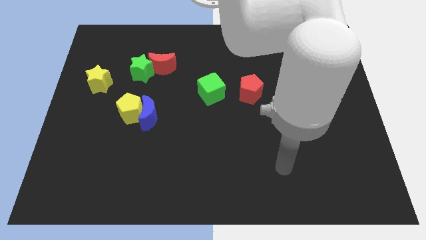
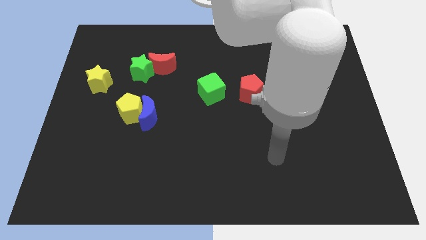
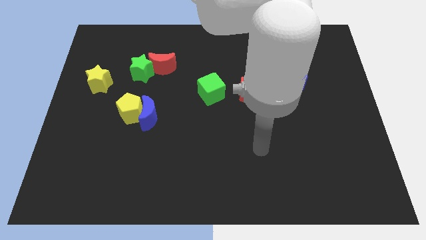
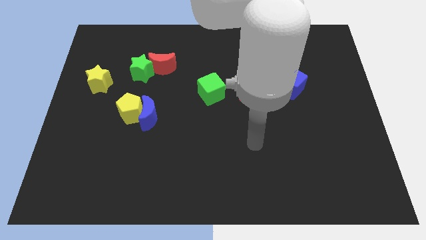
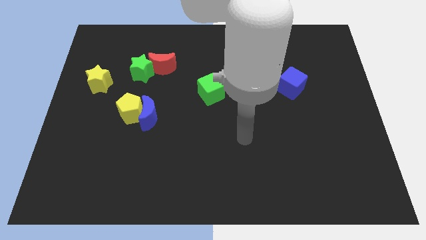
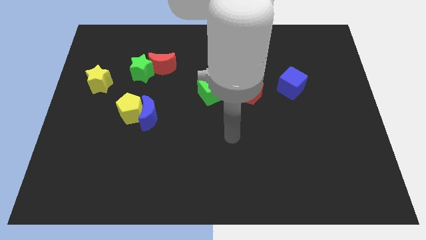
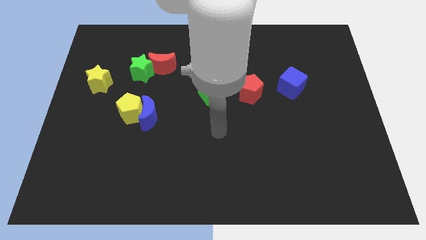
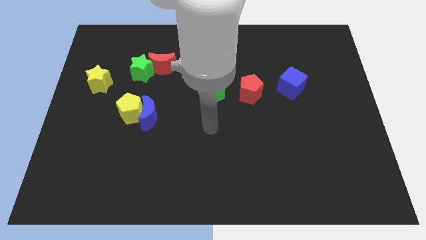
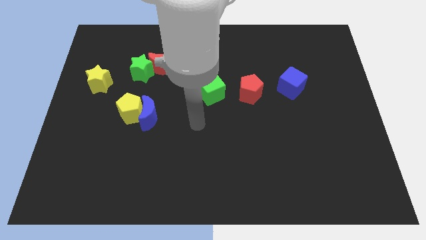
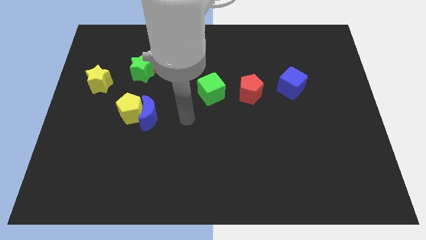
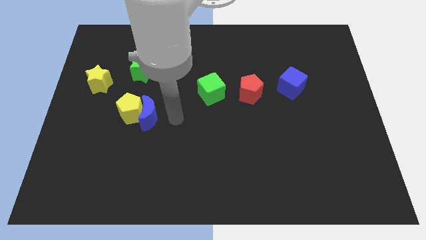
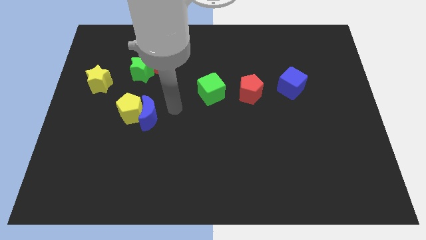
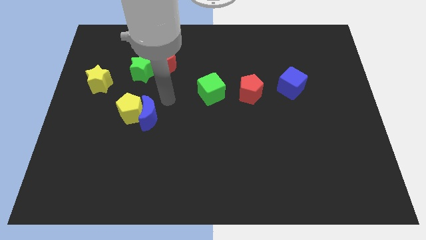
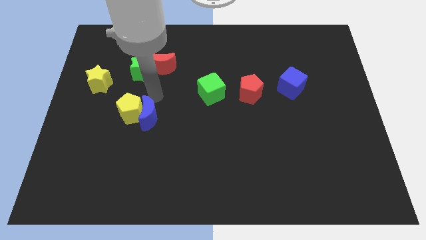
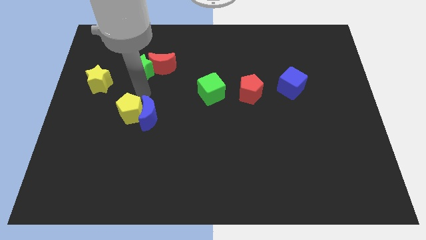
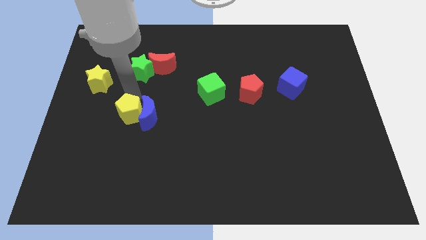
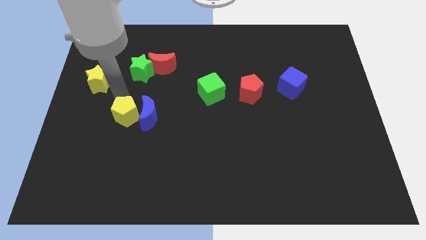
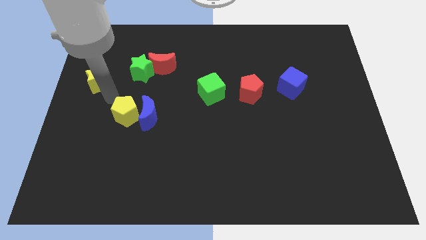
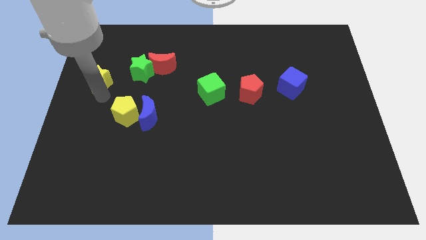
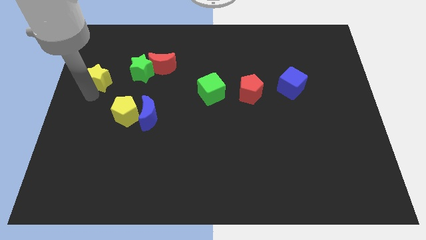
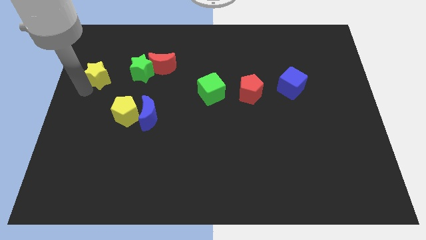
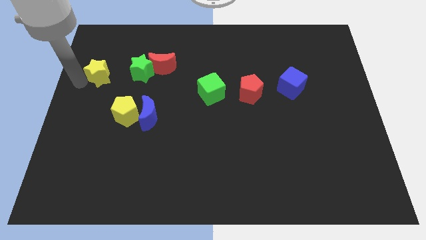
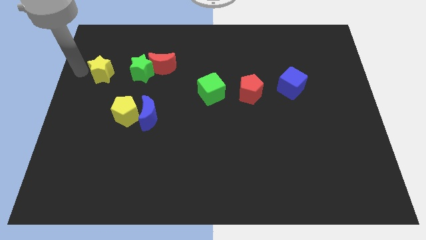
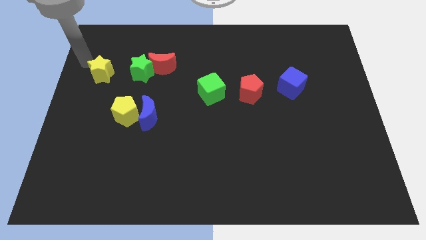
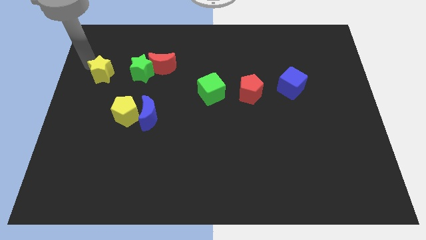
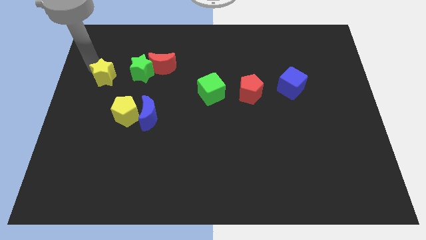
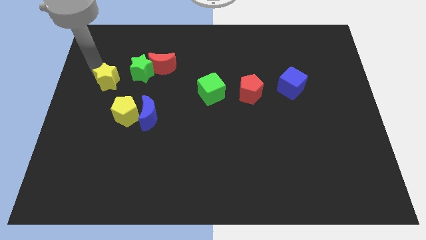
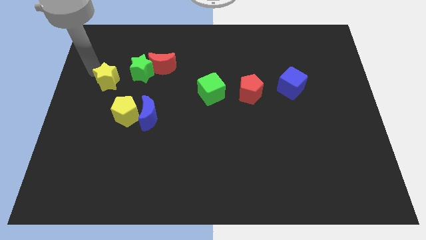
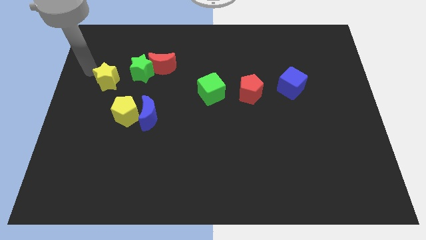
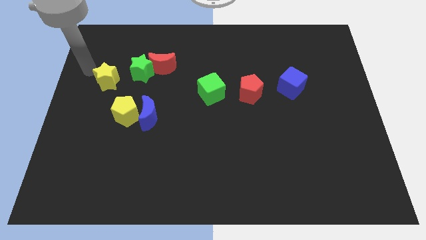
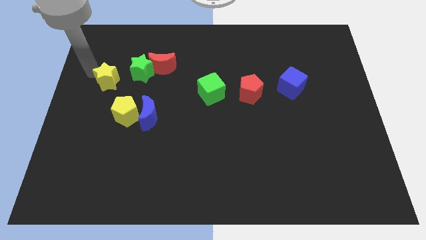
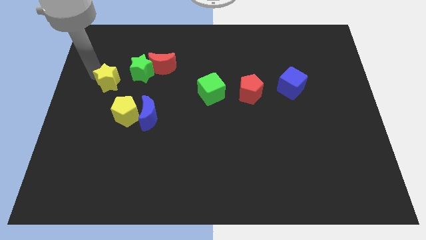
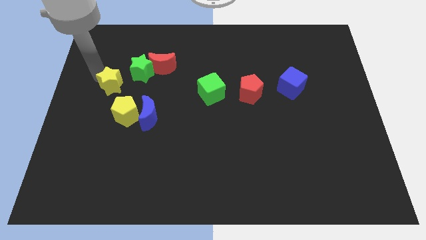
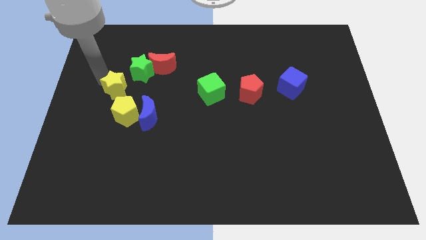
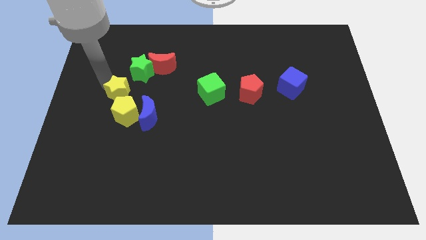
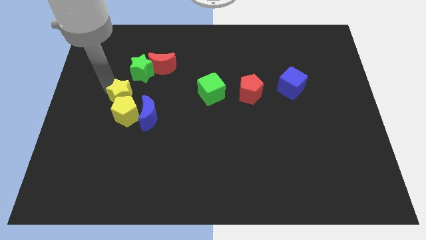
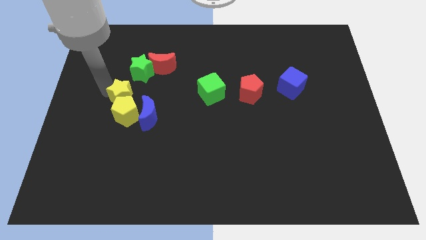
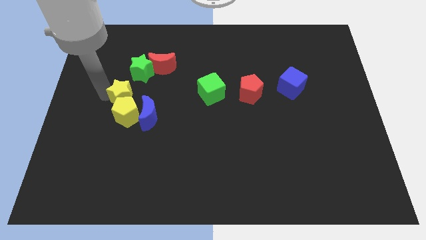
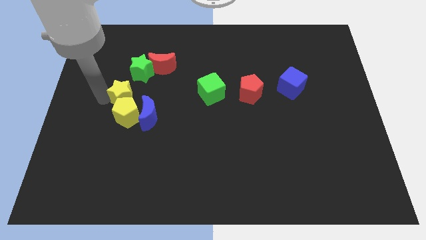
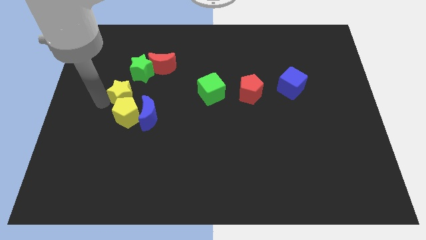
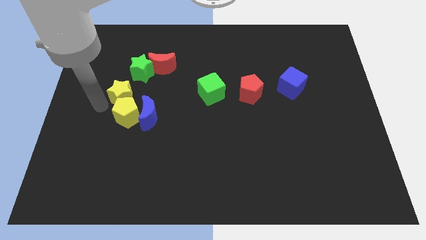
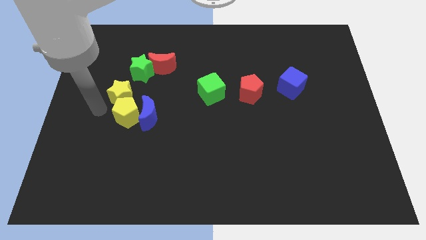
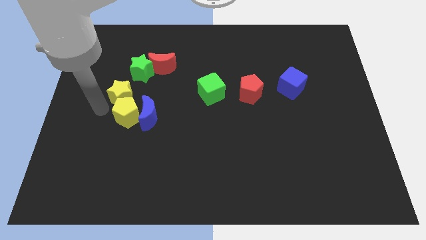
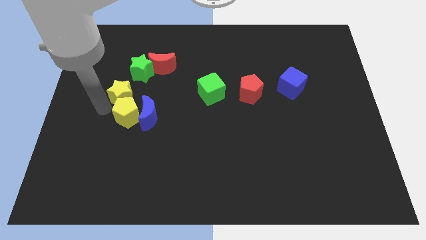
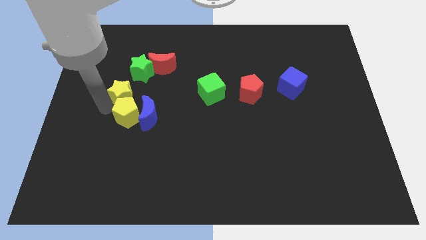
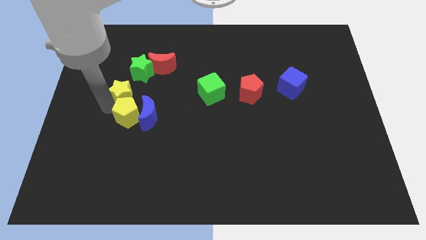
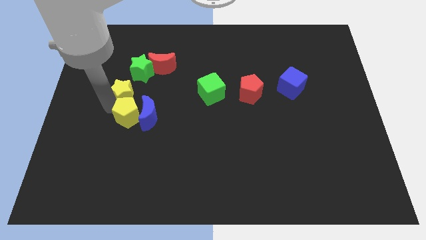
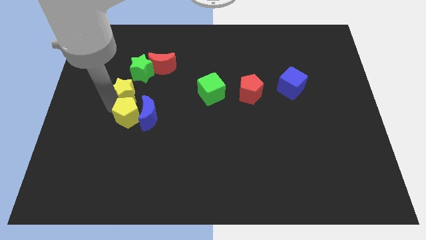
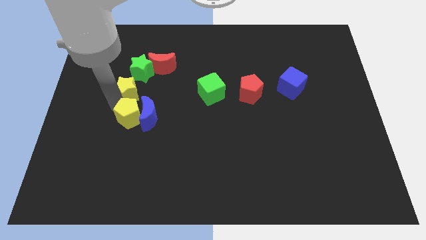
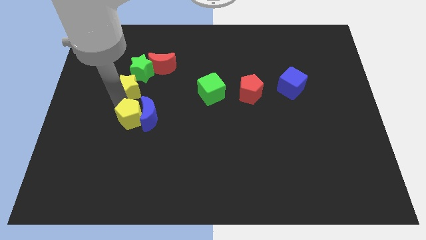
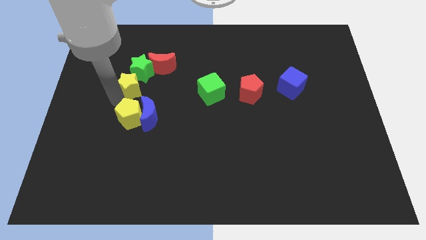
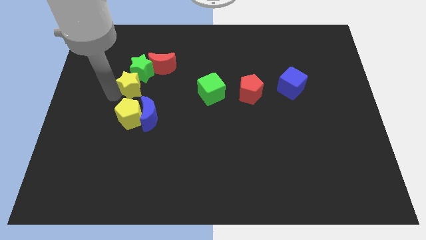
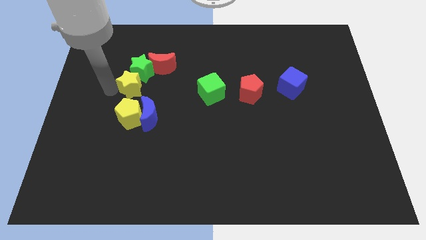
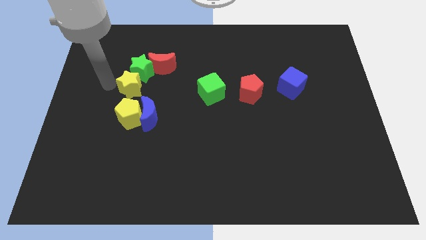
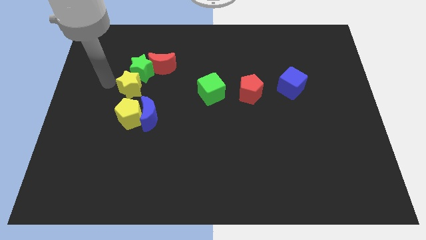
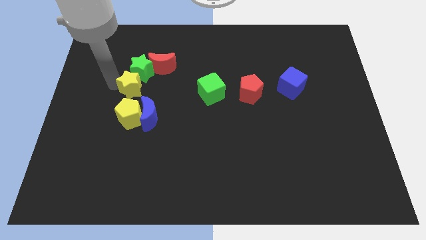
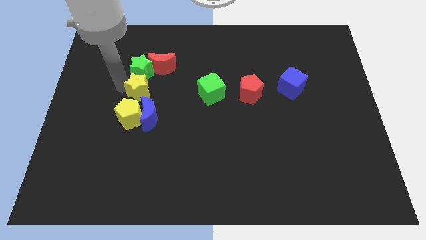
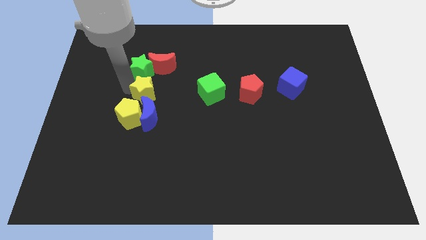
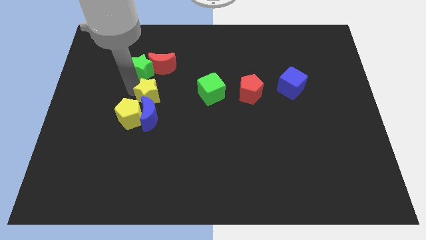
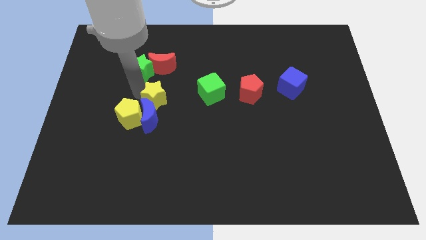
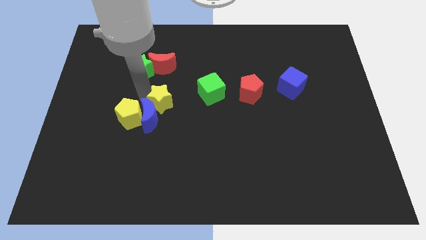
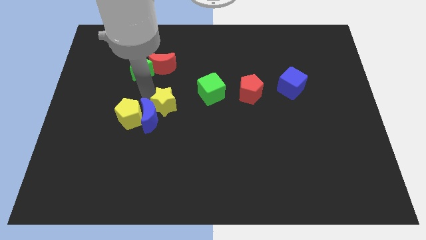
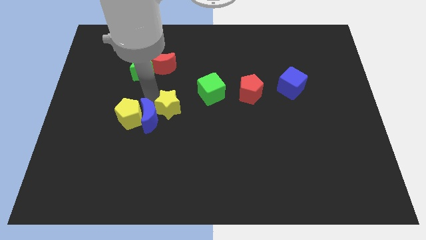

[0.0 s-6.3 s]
push the yellow star to the bottom left of the green cube
